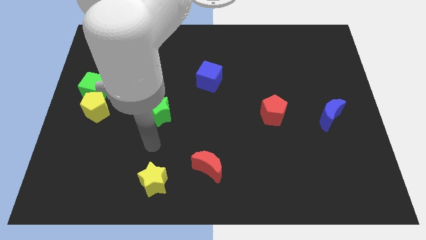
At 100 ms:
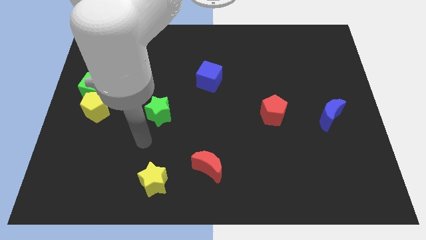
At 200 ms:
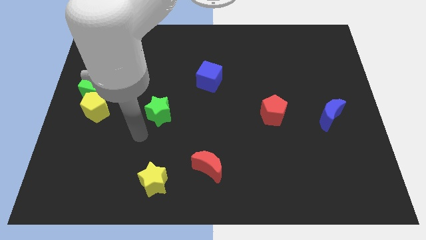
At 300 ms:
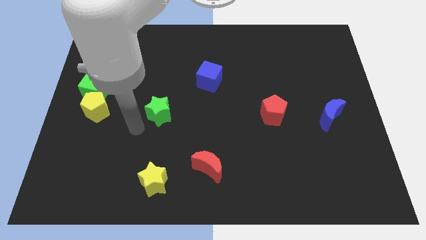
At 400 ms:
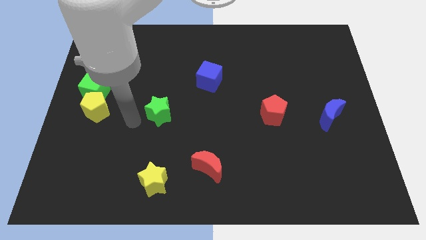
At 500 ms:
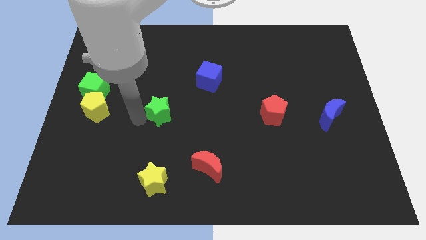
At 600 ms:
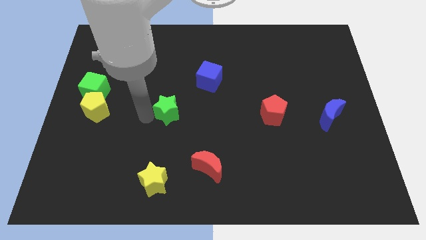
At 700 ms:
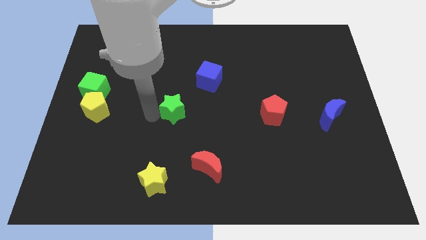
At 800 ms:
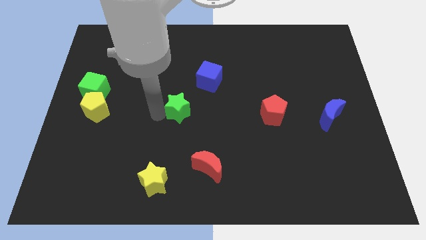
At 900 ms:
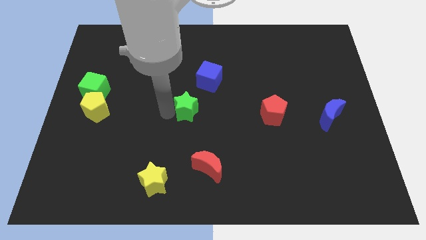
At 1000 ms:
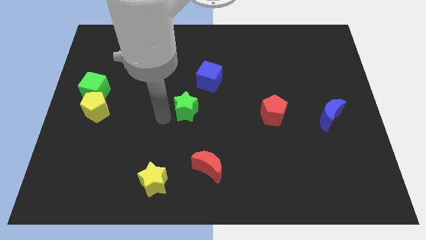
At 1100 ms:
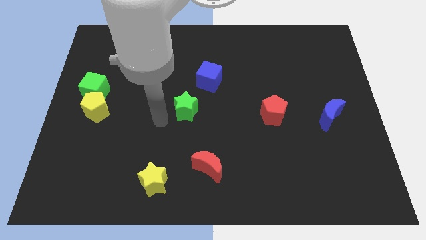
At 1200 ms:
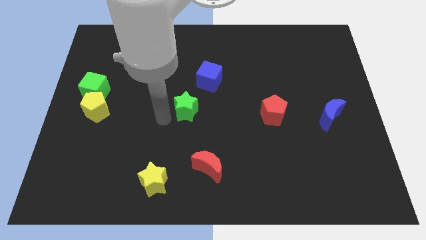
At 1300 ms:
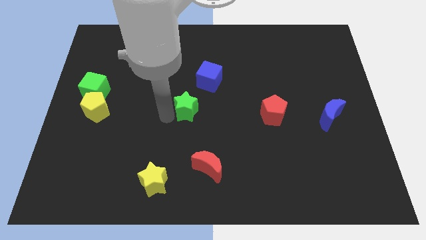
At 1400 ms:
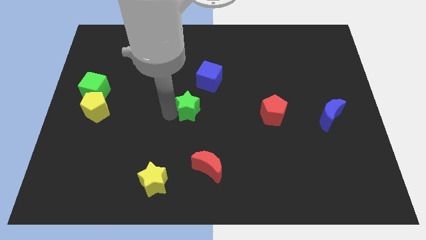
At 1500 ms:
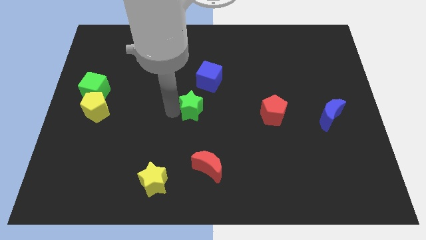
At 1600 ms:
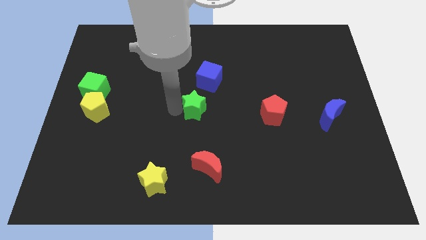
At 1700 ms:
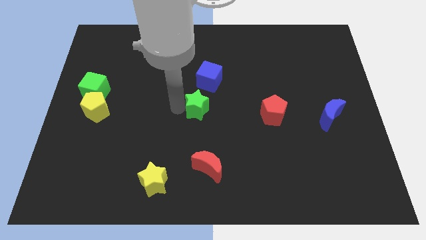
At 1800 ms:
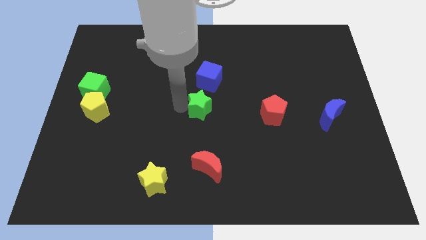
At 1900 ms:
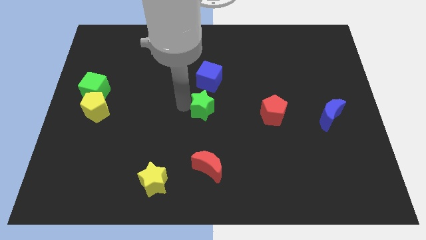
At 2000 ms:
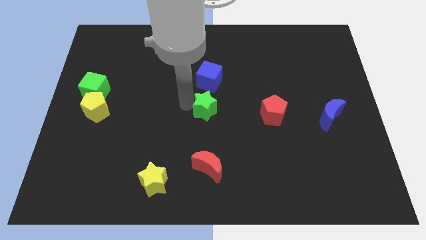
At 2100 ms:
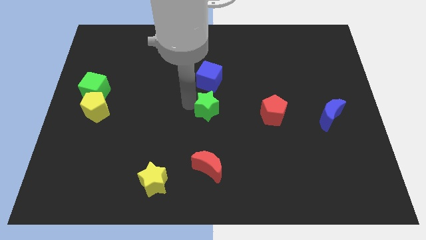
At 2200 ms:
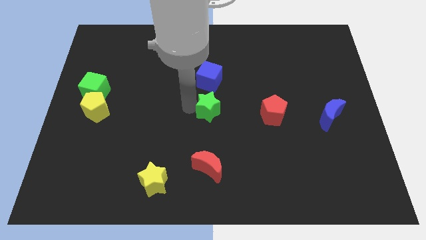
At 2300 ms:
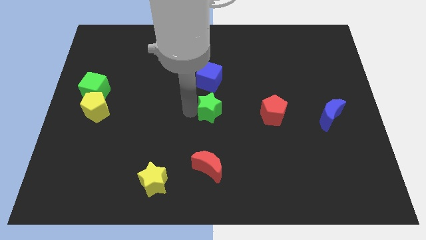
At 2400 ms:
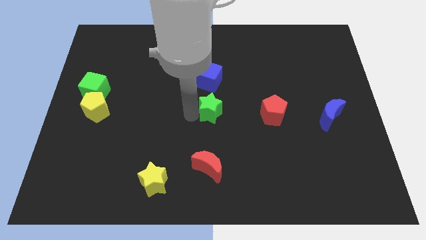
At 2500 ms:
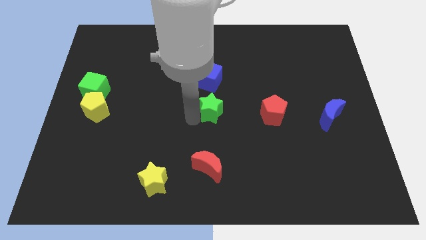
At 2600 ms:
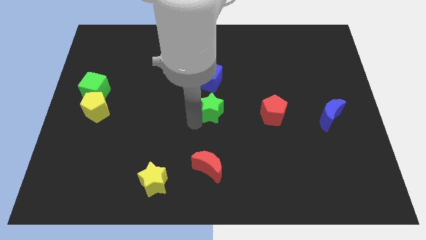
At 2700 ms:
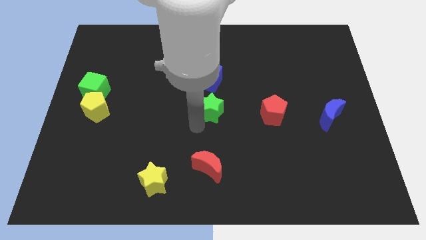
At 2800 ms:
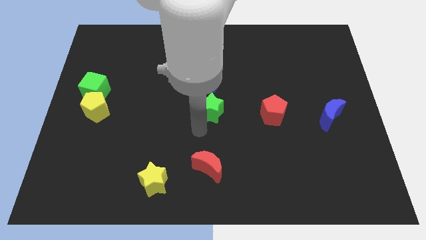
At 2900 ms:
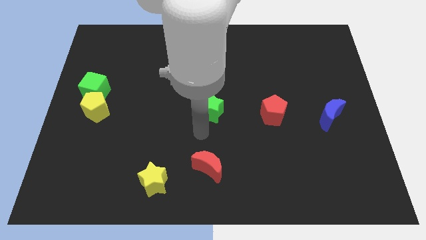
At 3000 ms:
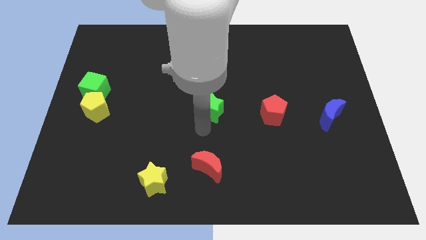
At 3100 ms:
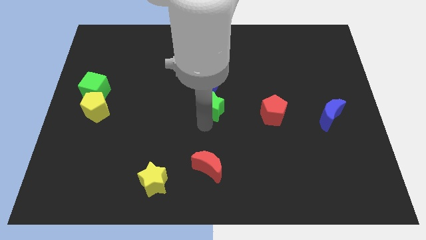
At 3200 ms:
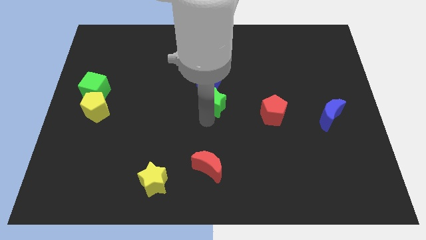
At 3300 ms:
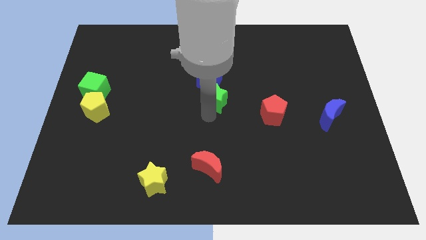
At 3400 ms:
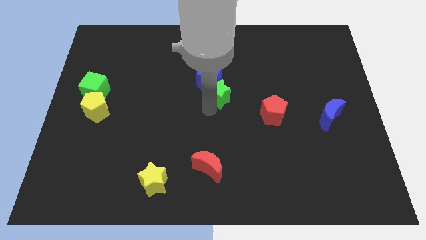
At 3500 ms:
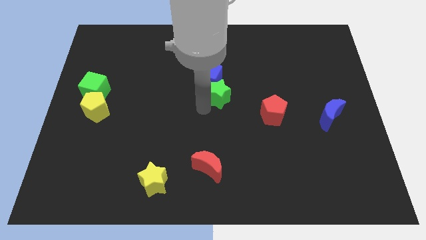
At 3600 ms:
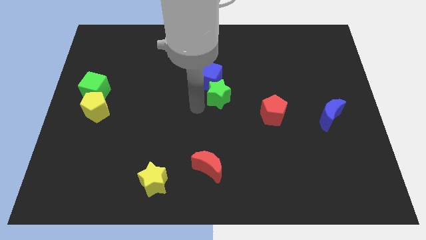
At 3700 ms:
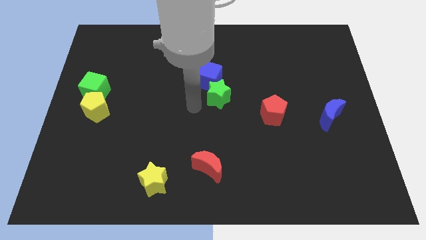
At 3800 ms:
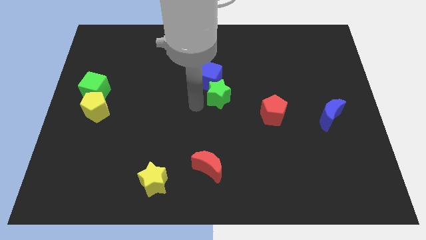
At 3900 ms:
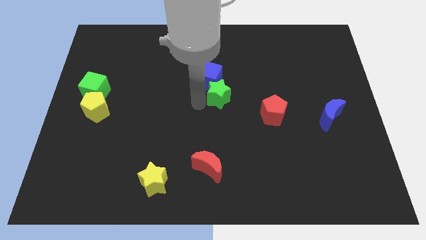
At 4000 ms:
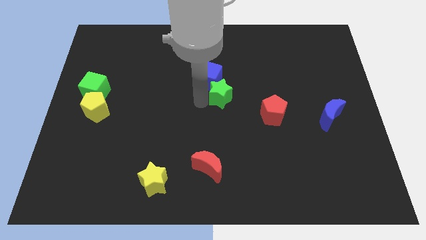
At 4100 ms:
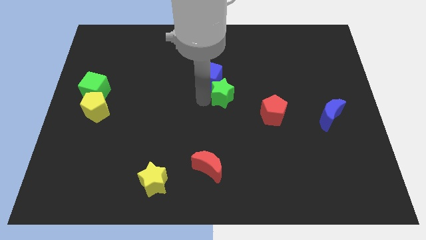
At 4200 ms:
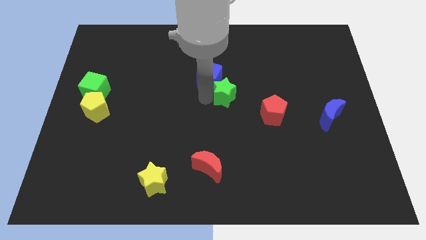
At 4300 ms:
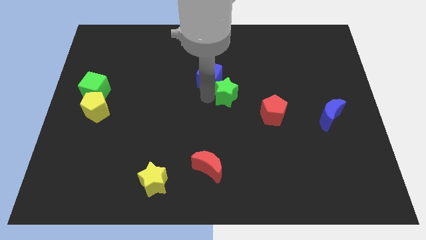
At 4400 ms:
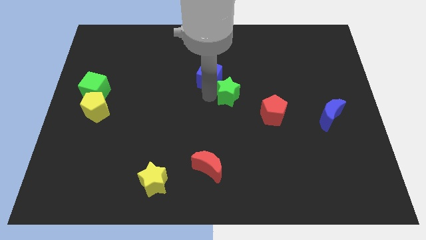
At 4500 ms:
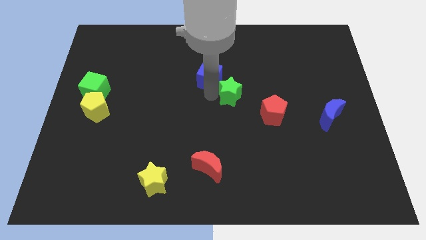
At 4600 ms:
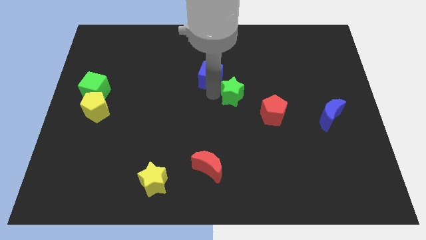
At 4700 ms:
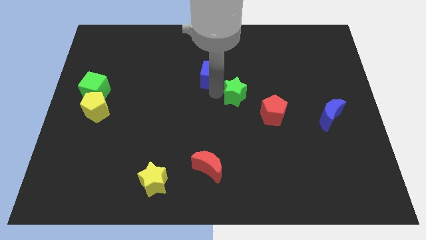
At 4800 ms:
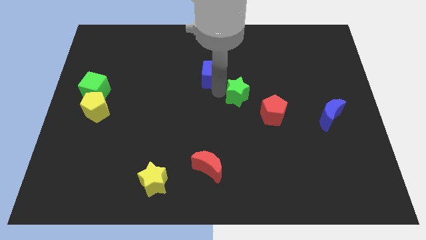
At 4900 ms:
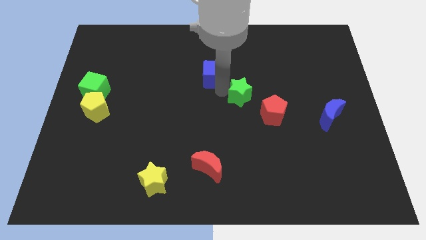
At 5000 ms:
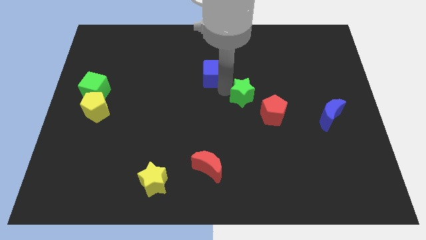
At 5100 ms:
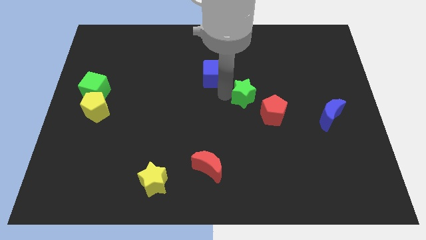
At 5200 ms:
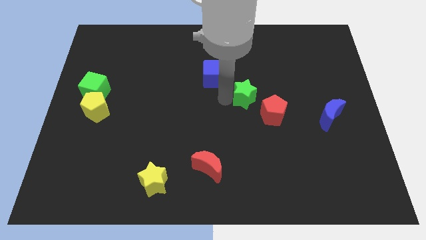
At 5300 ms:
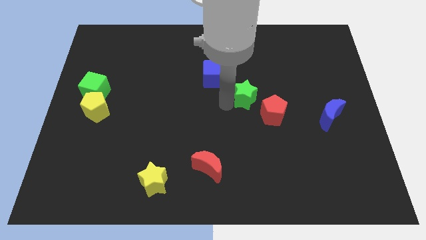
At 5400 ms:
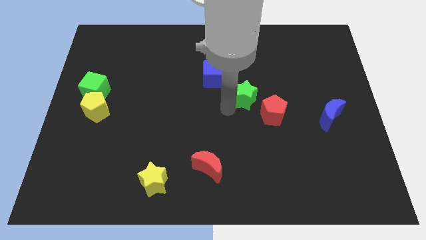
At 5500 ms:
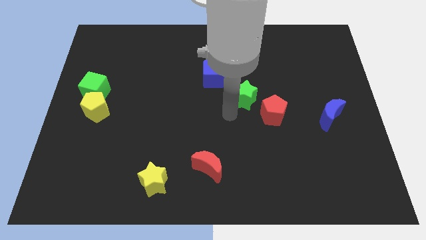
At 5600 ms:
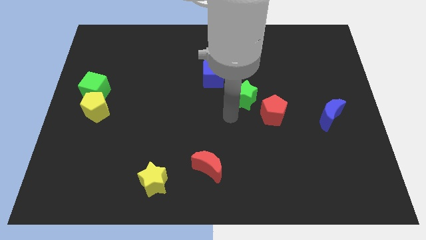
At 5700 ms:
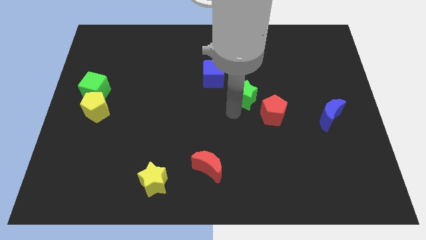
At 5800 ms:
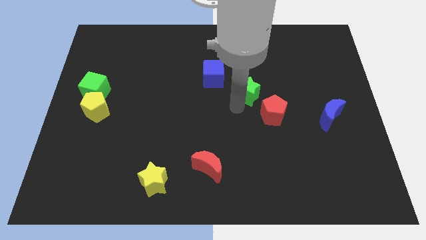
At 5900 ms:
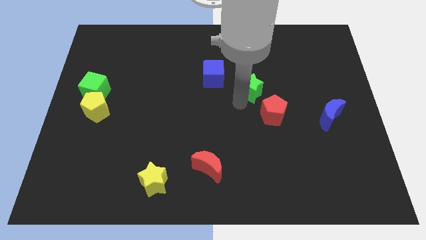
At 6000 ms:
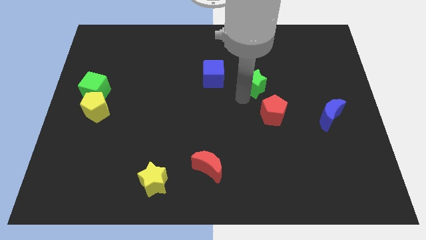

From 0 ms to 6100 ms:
slide the green star above the red pentagon
